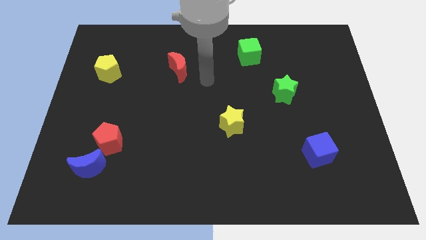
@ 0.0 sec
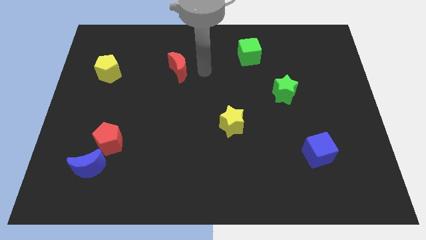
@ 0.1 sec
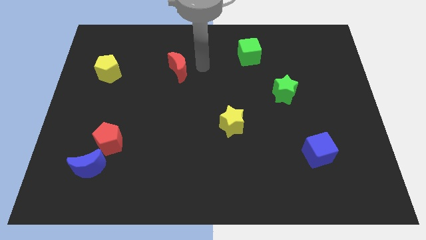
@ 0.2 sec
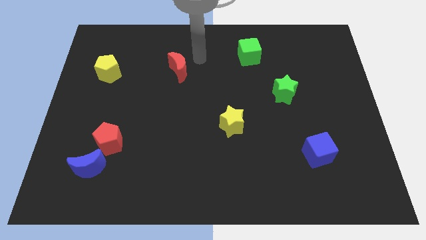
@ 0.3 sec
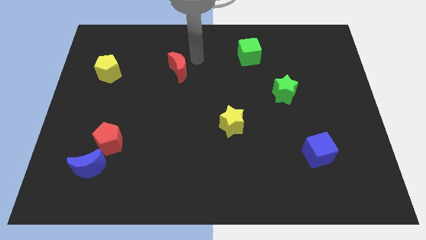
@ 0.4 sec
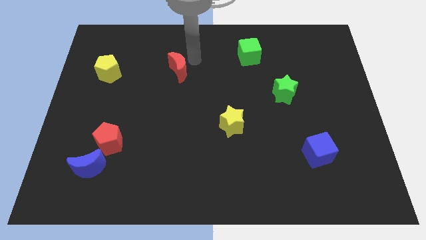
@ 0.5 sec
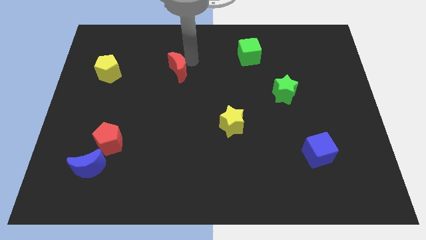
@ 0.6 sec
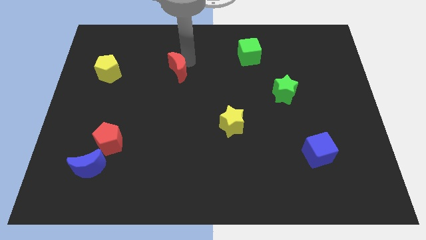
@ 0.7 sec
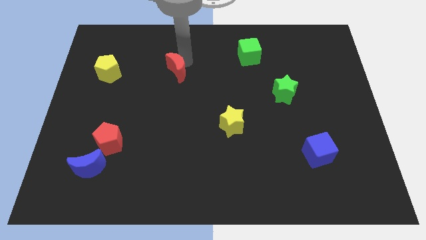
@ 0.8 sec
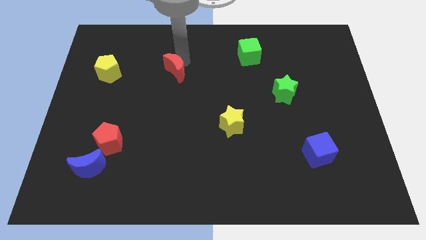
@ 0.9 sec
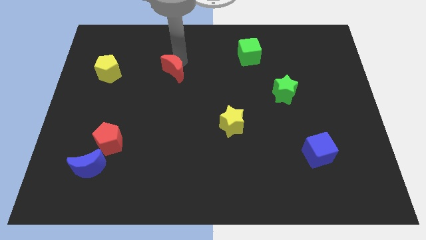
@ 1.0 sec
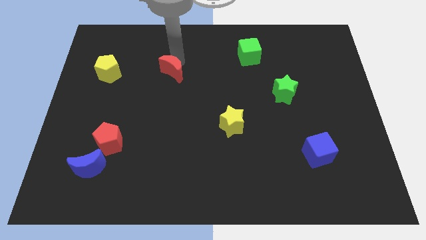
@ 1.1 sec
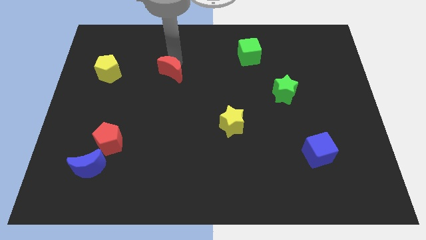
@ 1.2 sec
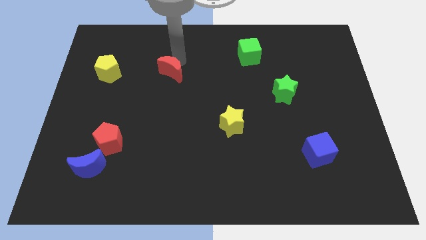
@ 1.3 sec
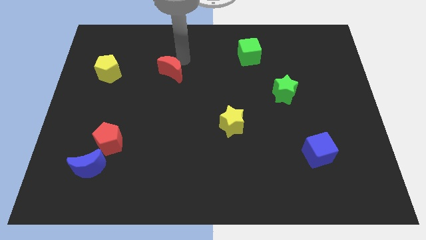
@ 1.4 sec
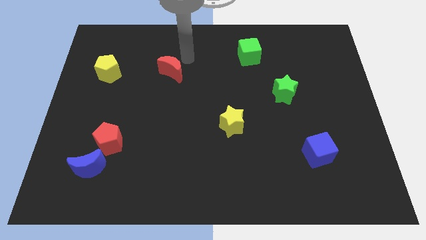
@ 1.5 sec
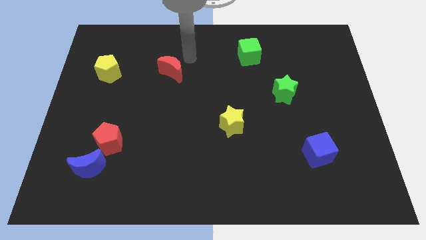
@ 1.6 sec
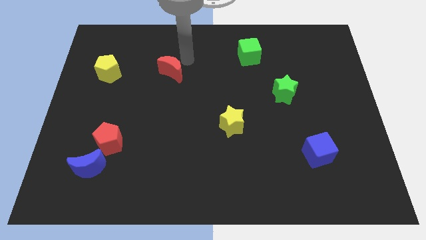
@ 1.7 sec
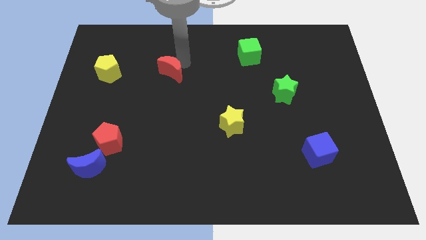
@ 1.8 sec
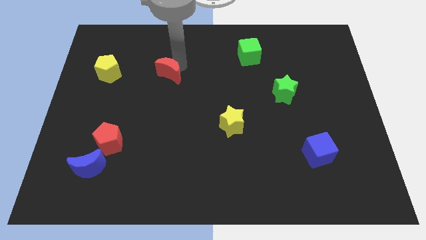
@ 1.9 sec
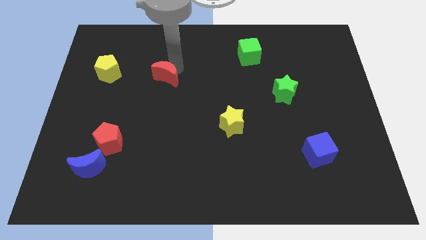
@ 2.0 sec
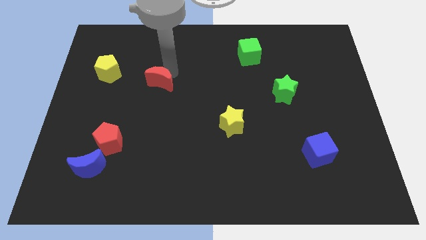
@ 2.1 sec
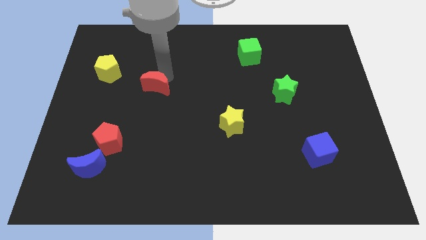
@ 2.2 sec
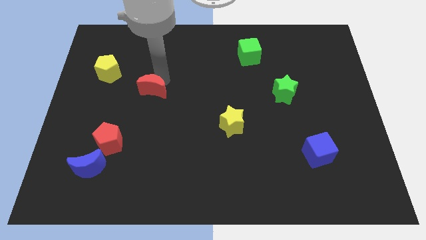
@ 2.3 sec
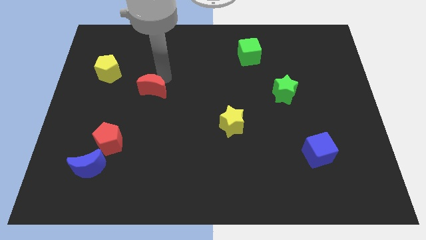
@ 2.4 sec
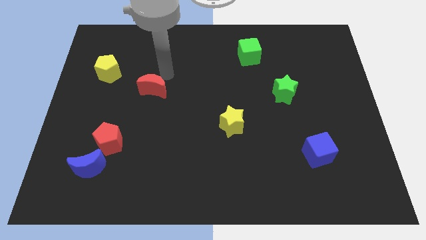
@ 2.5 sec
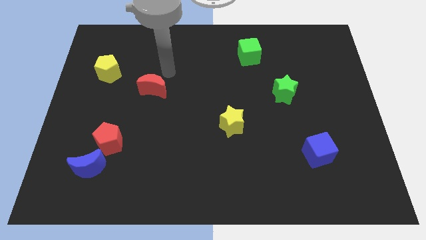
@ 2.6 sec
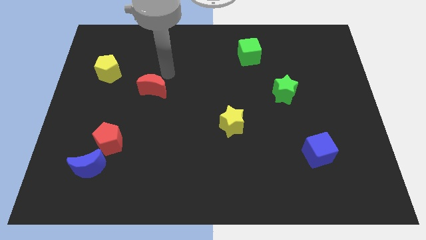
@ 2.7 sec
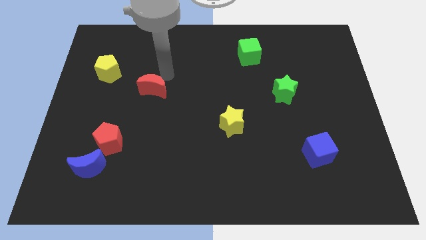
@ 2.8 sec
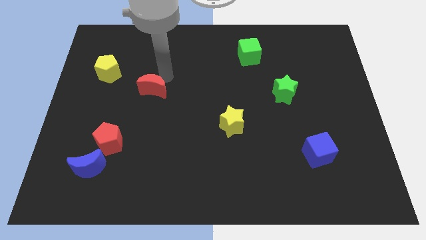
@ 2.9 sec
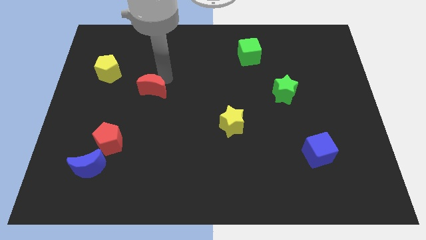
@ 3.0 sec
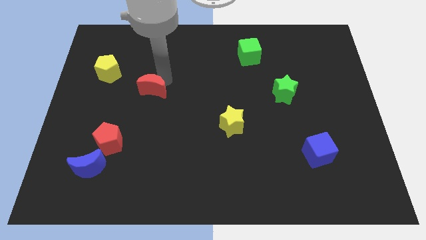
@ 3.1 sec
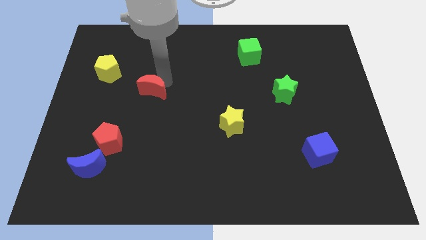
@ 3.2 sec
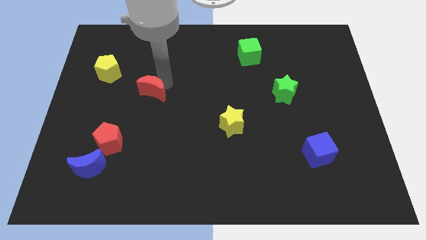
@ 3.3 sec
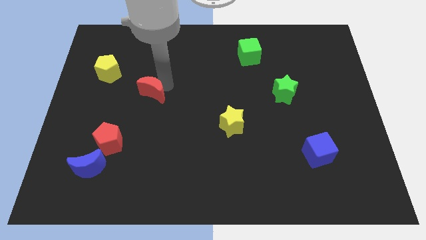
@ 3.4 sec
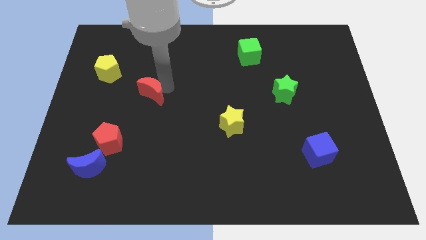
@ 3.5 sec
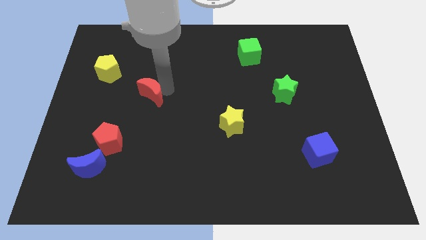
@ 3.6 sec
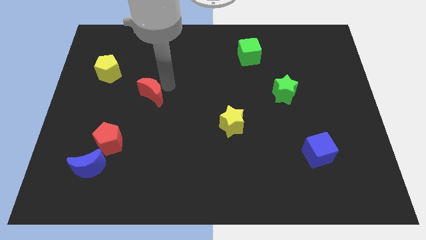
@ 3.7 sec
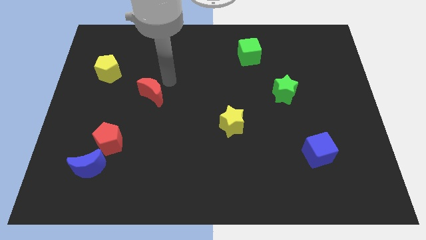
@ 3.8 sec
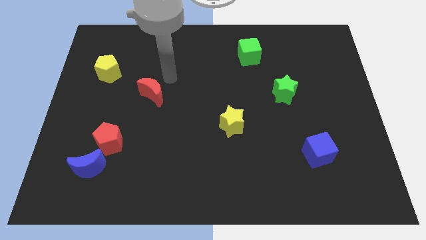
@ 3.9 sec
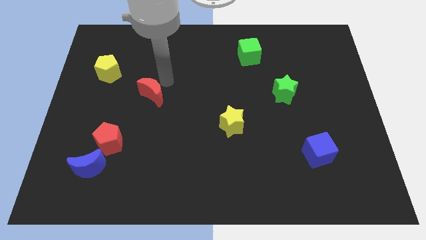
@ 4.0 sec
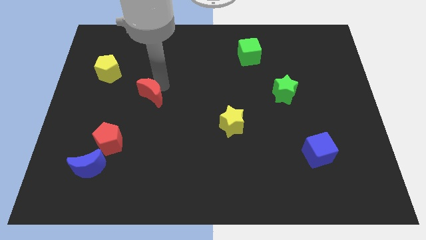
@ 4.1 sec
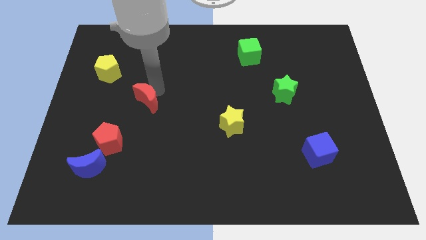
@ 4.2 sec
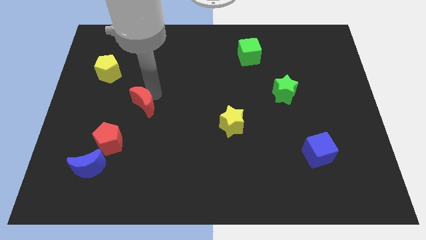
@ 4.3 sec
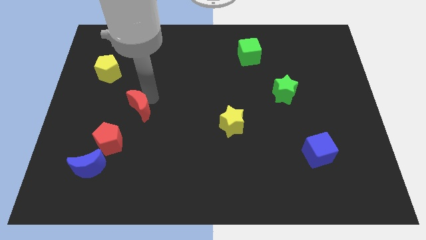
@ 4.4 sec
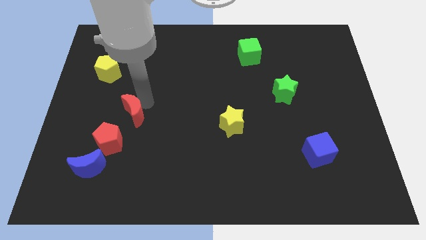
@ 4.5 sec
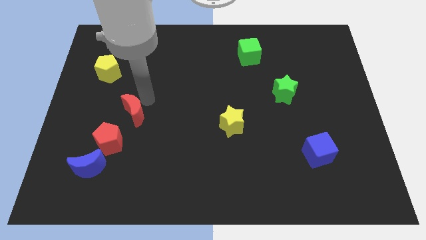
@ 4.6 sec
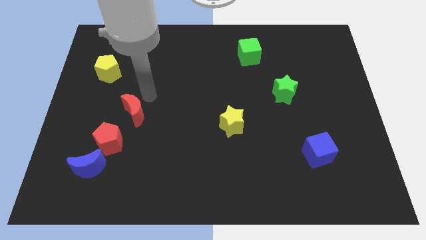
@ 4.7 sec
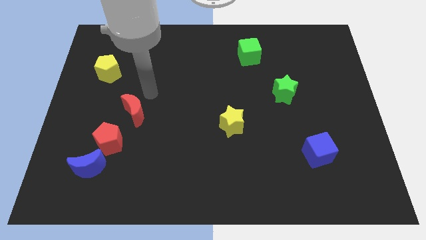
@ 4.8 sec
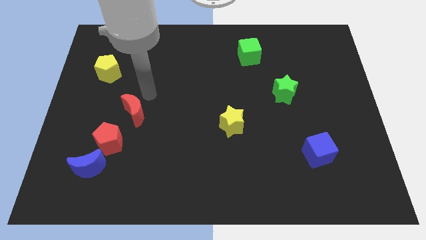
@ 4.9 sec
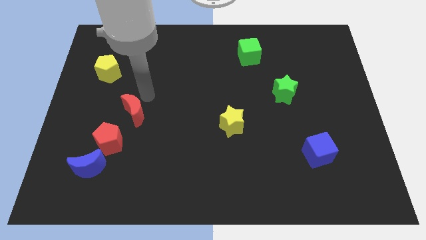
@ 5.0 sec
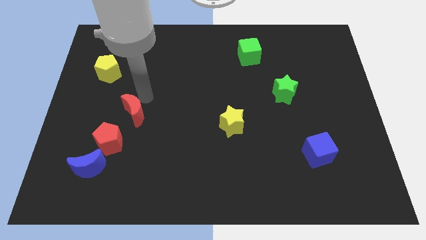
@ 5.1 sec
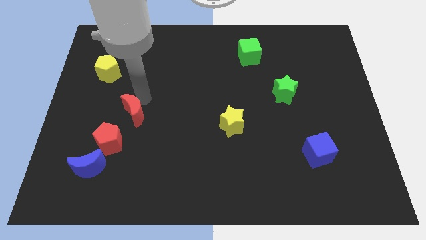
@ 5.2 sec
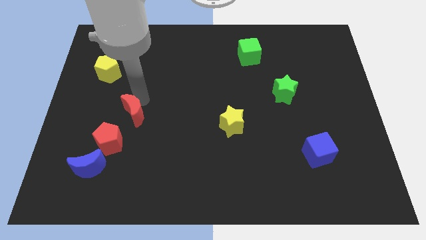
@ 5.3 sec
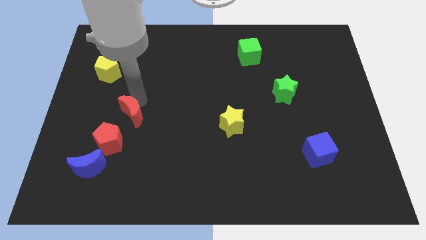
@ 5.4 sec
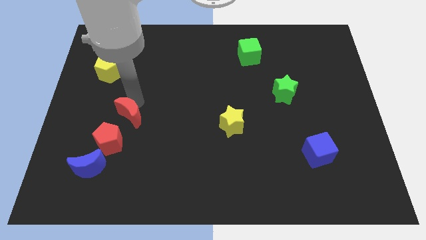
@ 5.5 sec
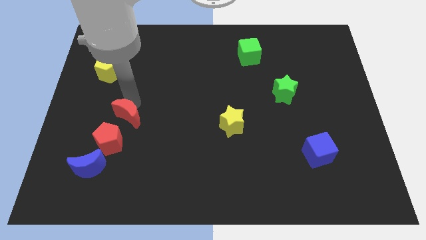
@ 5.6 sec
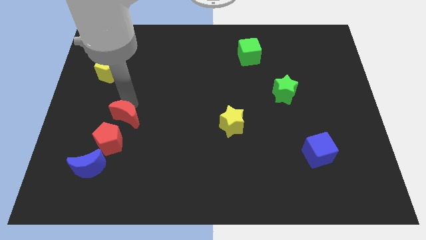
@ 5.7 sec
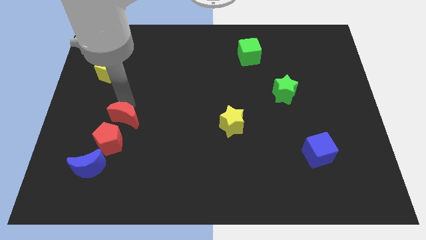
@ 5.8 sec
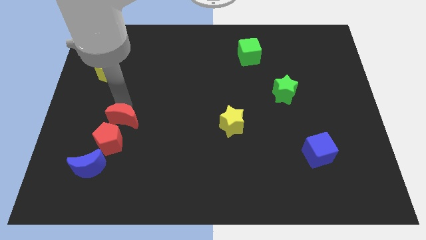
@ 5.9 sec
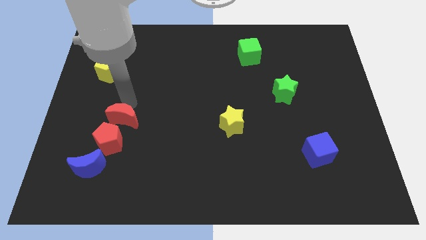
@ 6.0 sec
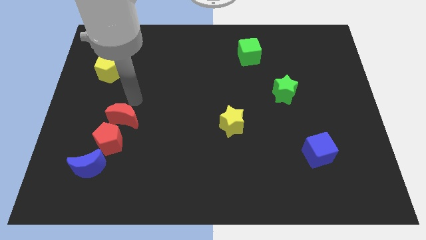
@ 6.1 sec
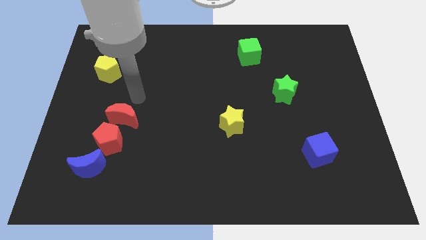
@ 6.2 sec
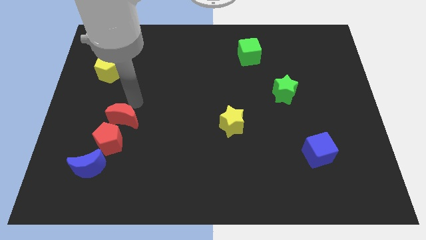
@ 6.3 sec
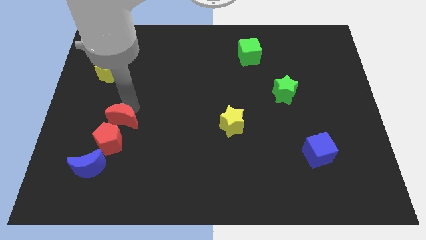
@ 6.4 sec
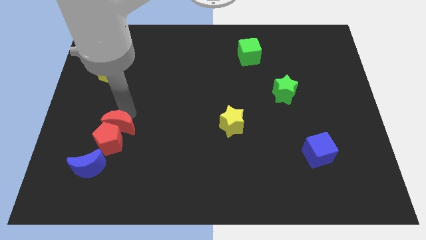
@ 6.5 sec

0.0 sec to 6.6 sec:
move the red moon to the red pentagon

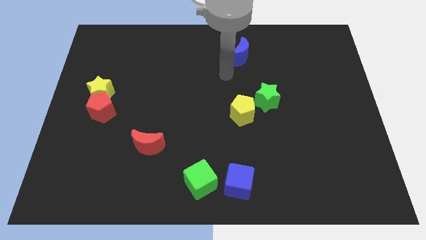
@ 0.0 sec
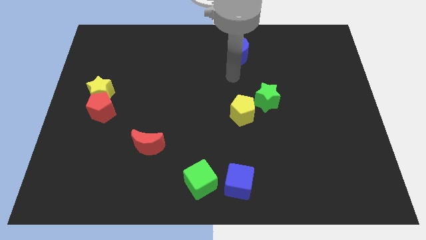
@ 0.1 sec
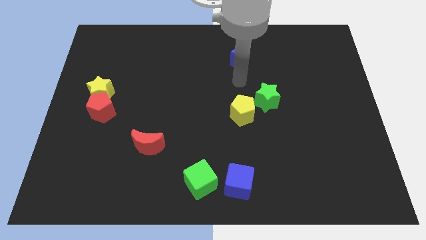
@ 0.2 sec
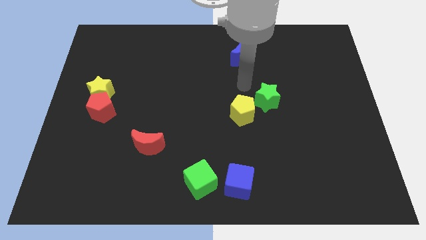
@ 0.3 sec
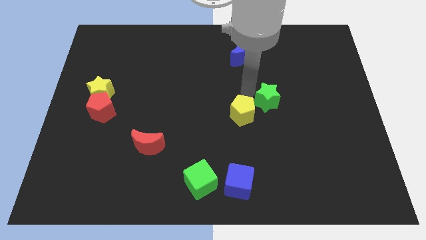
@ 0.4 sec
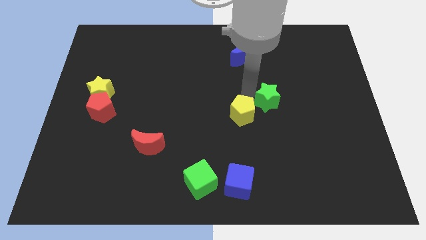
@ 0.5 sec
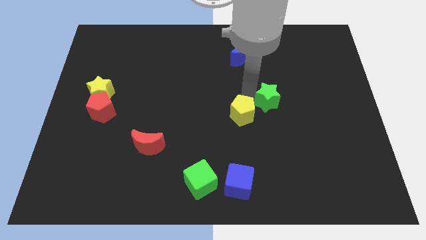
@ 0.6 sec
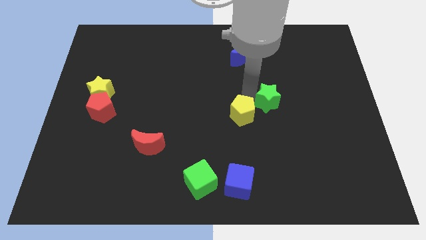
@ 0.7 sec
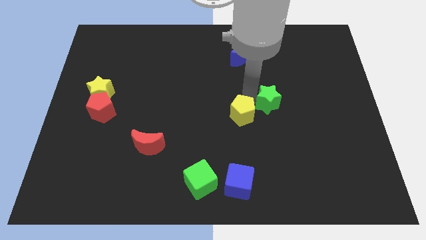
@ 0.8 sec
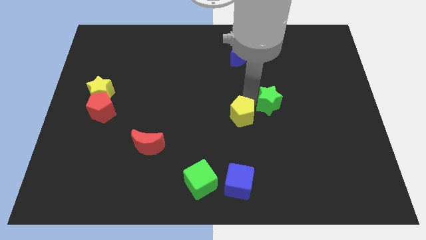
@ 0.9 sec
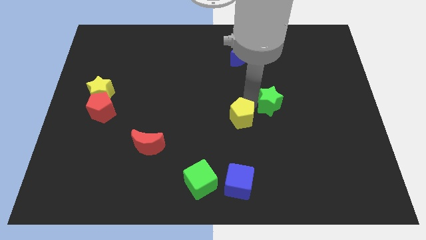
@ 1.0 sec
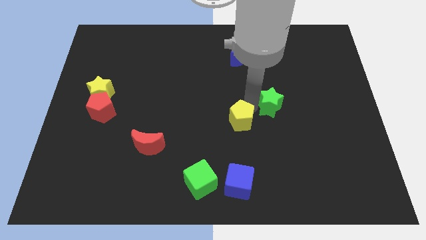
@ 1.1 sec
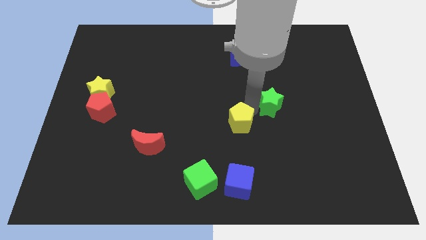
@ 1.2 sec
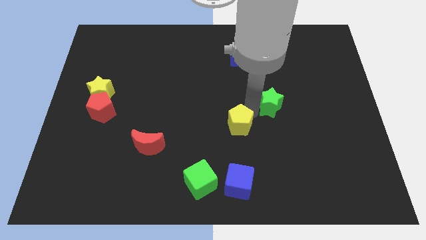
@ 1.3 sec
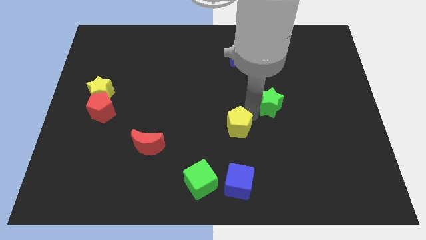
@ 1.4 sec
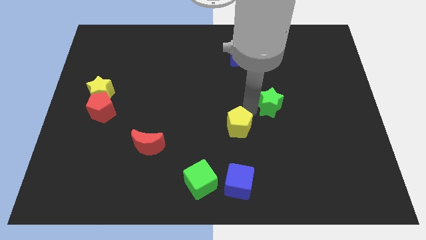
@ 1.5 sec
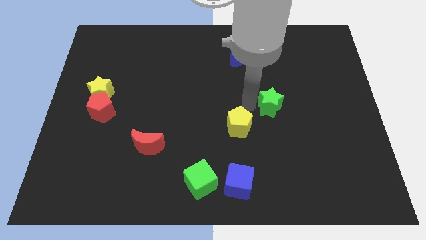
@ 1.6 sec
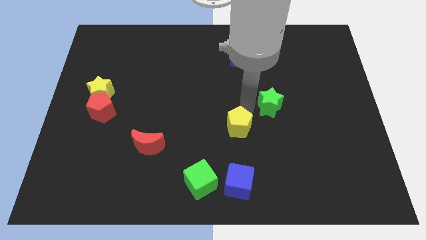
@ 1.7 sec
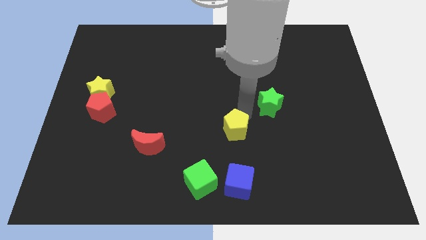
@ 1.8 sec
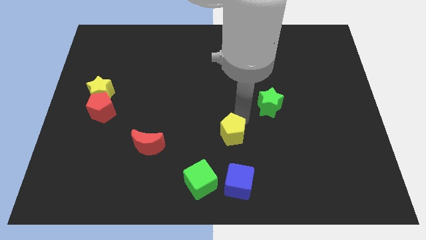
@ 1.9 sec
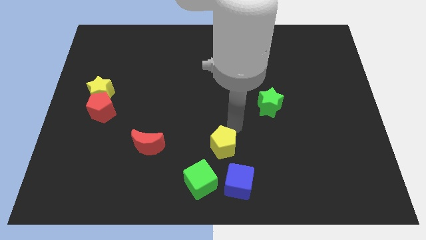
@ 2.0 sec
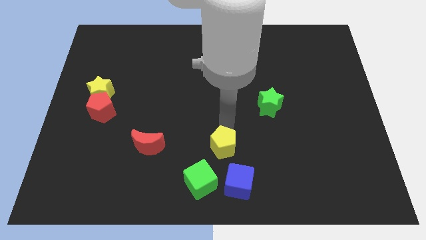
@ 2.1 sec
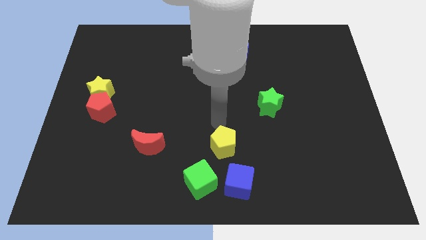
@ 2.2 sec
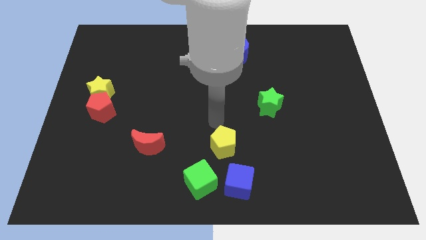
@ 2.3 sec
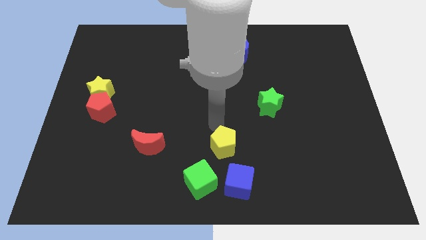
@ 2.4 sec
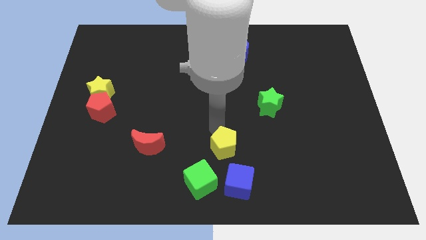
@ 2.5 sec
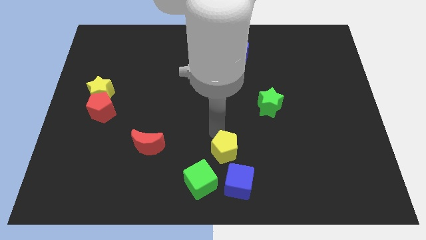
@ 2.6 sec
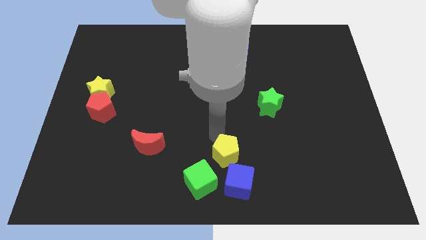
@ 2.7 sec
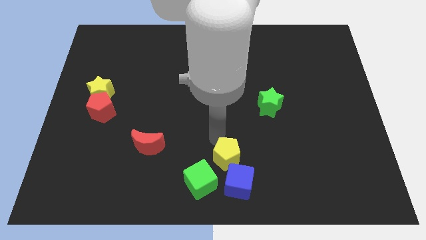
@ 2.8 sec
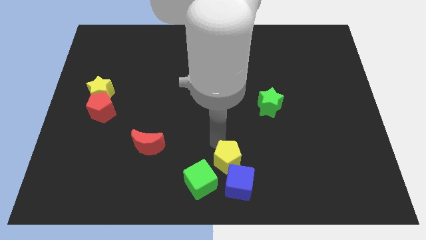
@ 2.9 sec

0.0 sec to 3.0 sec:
push the yellow pentagon to the blue cube
